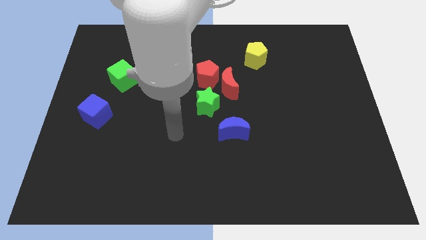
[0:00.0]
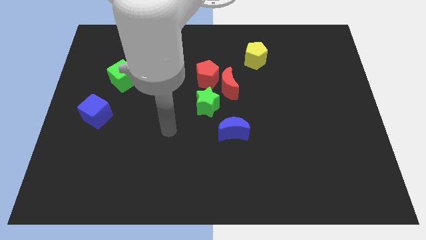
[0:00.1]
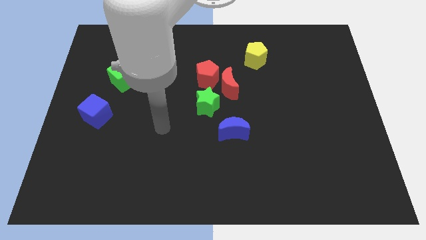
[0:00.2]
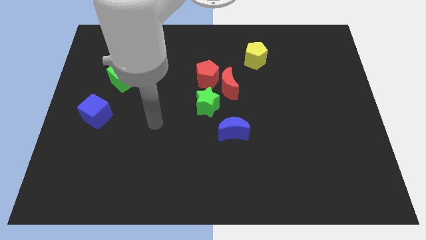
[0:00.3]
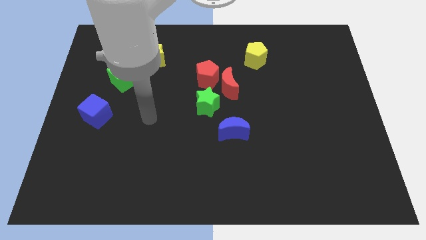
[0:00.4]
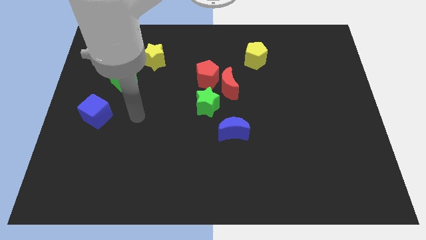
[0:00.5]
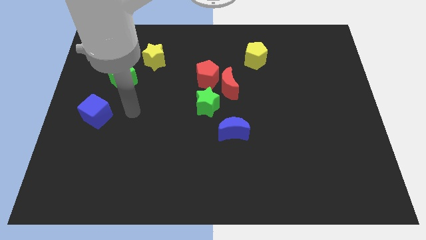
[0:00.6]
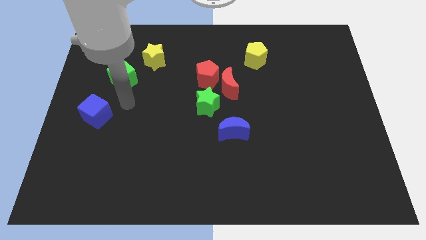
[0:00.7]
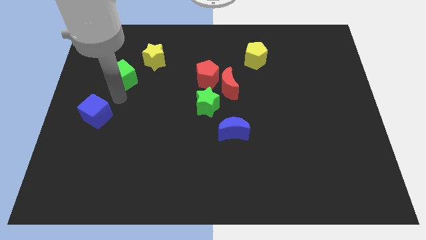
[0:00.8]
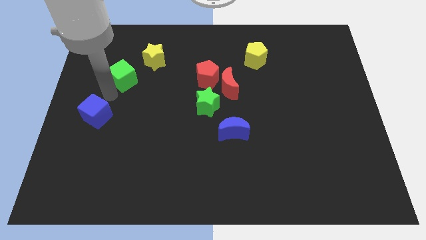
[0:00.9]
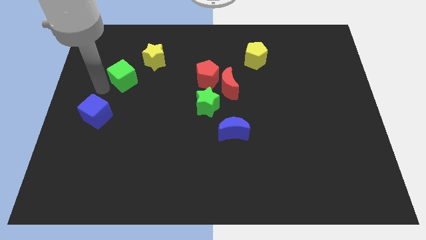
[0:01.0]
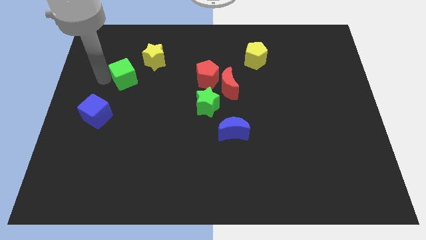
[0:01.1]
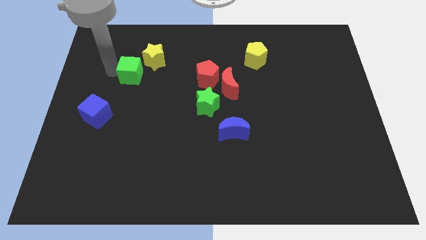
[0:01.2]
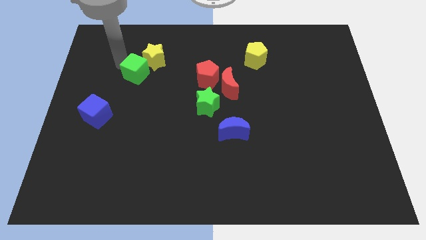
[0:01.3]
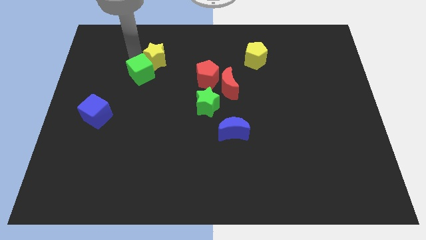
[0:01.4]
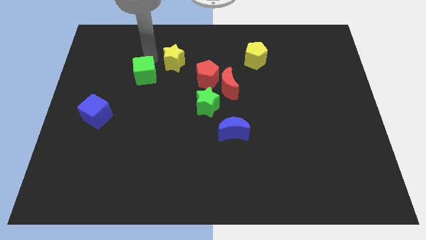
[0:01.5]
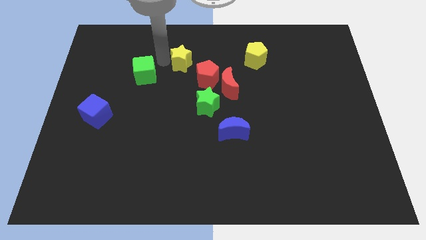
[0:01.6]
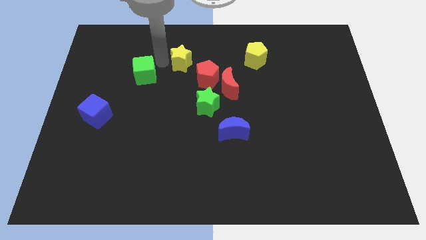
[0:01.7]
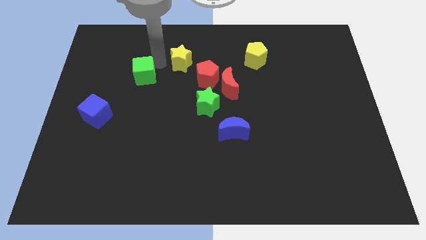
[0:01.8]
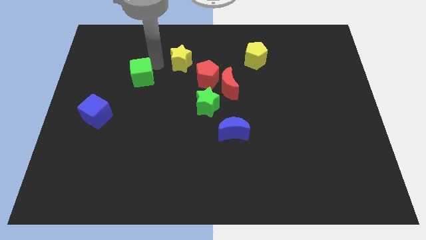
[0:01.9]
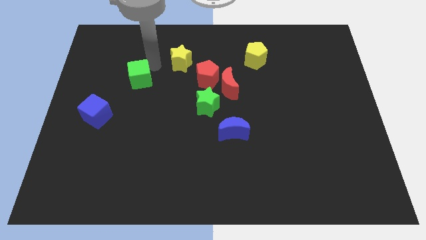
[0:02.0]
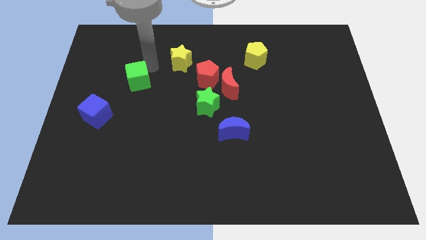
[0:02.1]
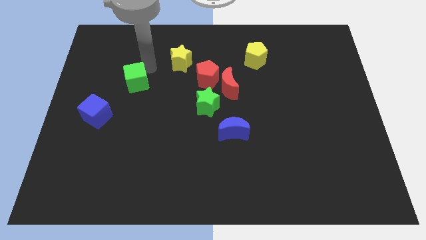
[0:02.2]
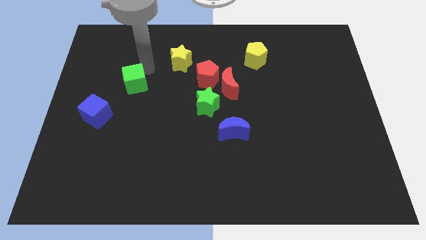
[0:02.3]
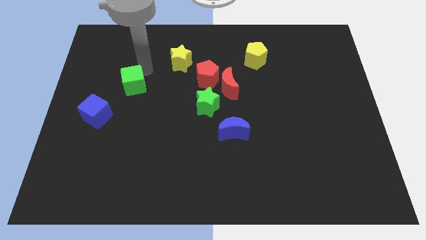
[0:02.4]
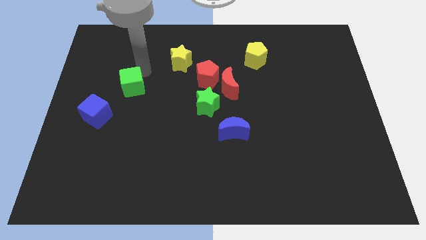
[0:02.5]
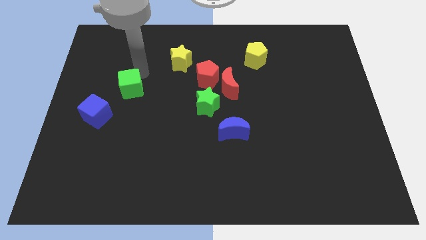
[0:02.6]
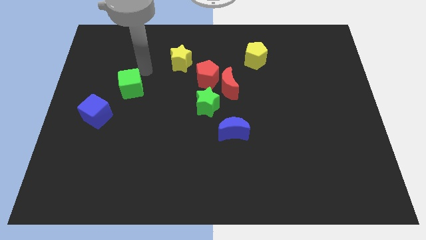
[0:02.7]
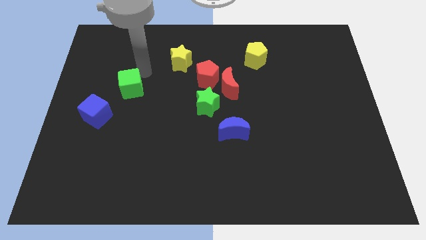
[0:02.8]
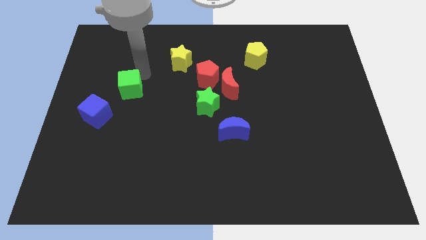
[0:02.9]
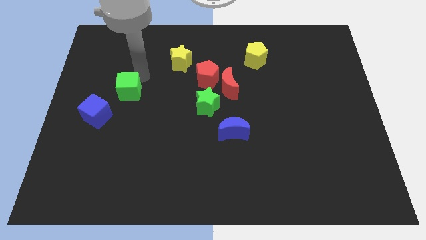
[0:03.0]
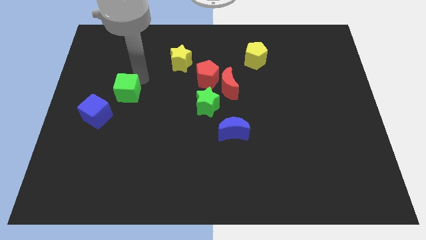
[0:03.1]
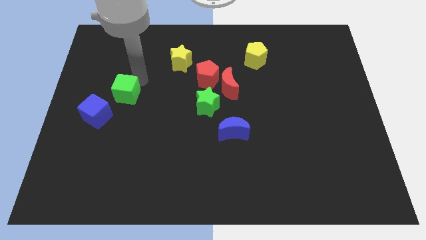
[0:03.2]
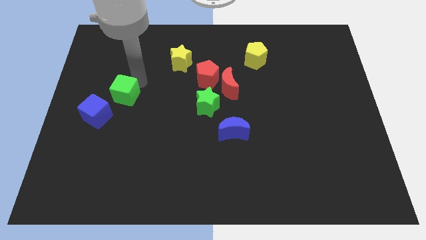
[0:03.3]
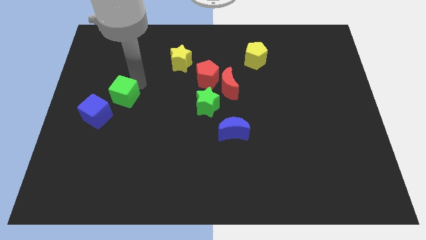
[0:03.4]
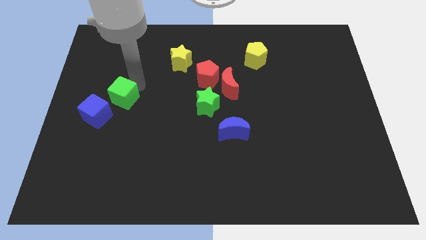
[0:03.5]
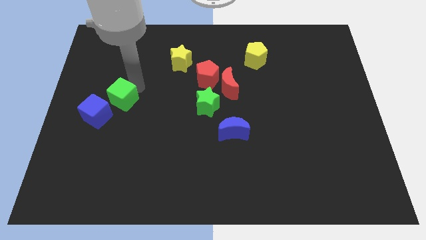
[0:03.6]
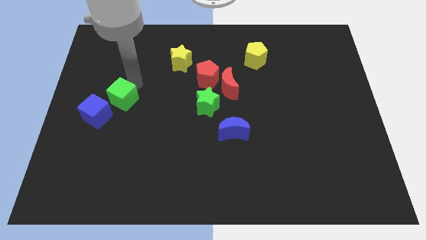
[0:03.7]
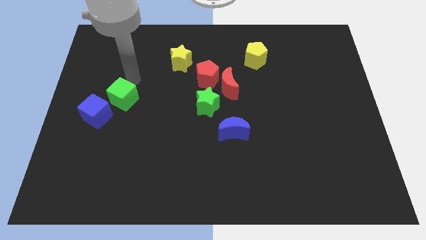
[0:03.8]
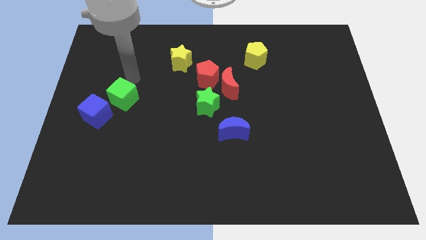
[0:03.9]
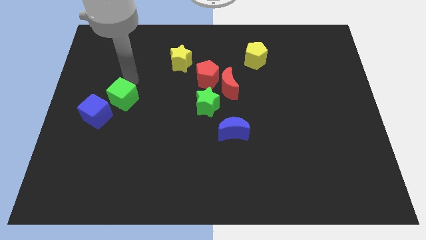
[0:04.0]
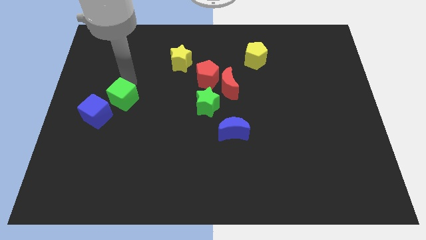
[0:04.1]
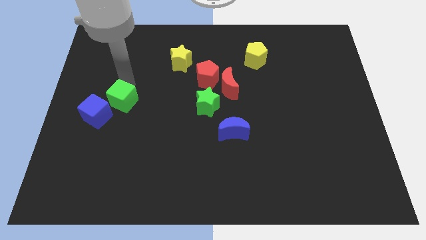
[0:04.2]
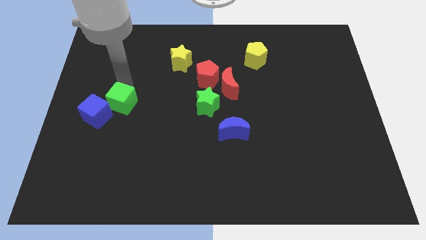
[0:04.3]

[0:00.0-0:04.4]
move the green cube downwards a little

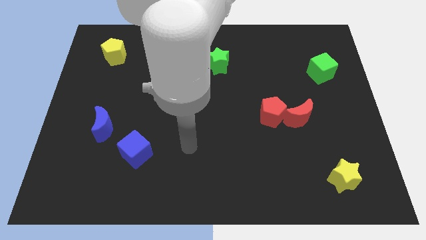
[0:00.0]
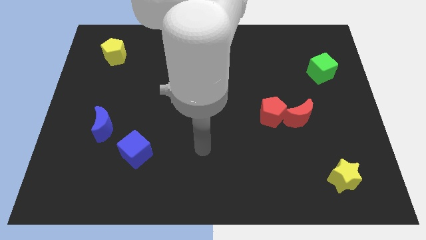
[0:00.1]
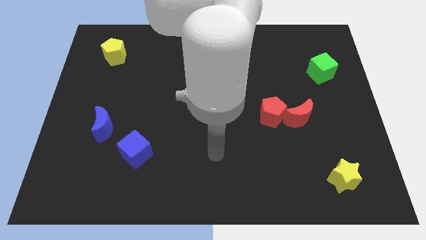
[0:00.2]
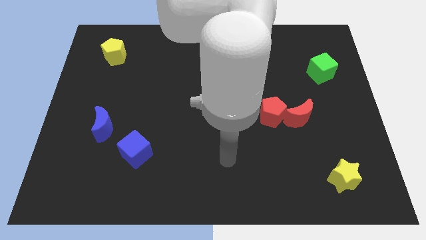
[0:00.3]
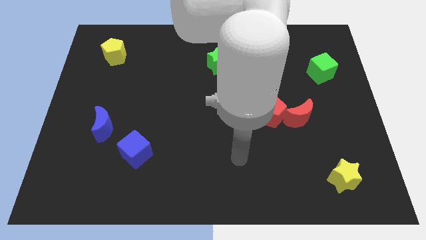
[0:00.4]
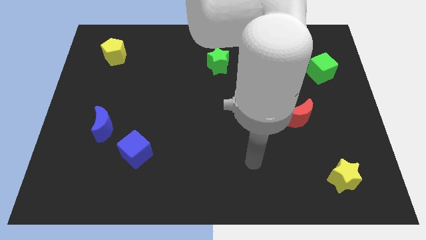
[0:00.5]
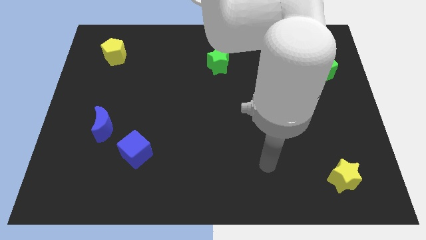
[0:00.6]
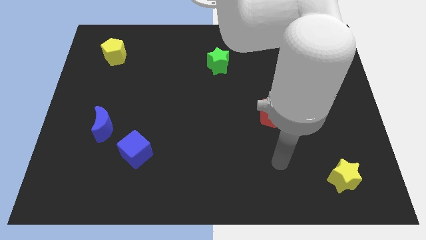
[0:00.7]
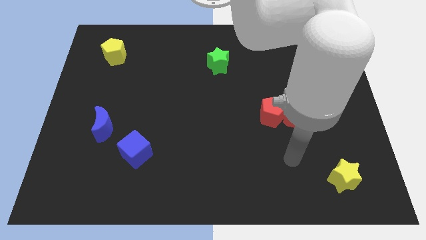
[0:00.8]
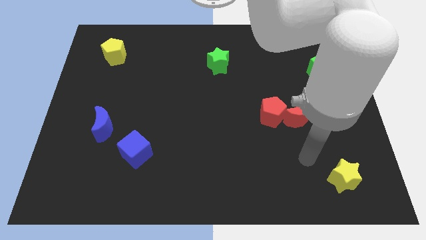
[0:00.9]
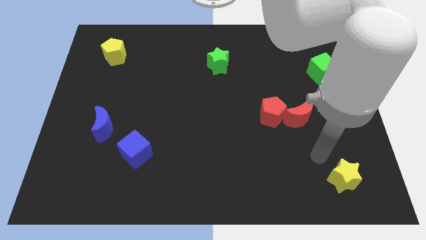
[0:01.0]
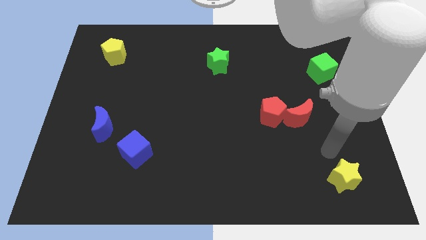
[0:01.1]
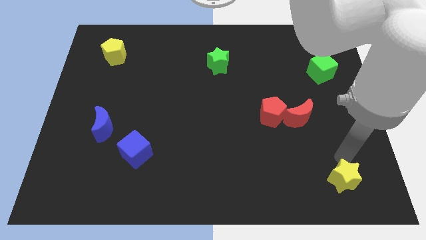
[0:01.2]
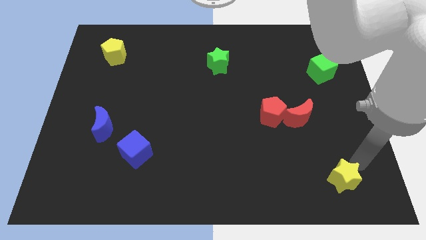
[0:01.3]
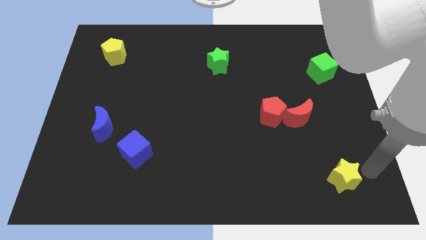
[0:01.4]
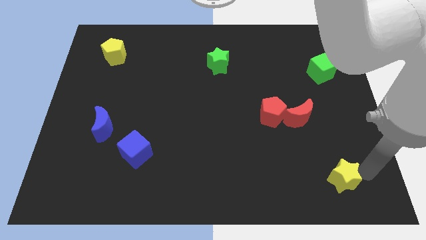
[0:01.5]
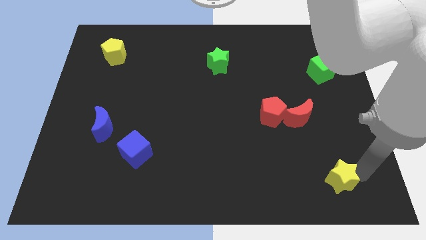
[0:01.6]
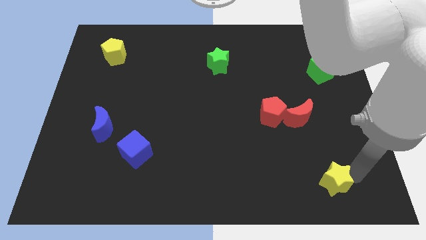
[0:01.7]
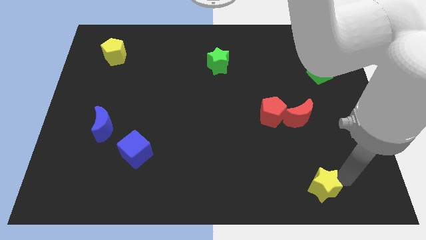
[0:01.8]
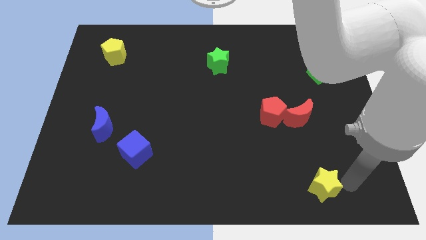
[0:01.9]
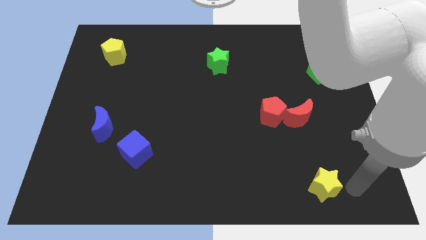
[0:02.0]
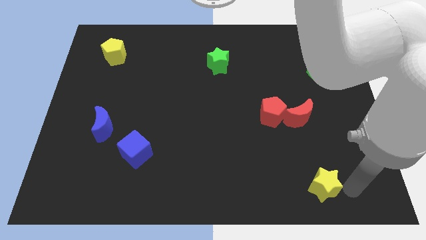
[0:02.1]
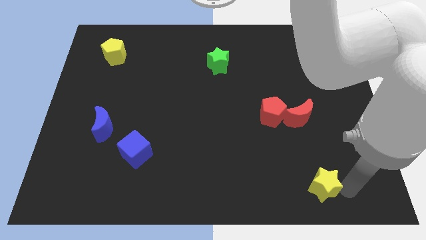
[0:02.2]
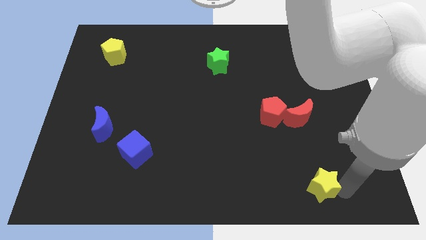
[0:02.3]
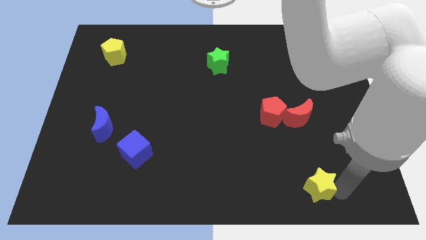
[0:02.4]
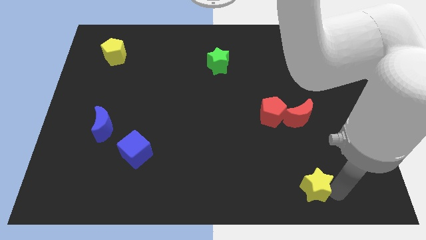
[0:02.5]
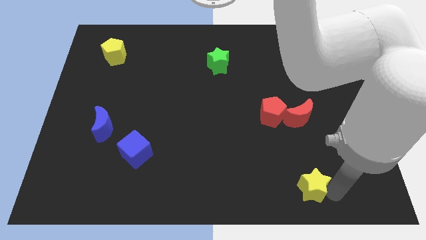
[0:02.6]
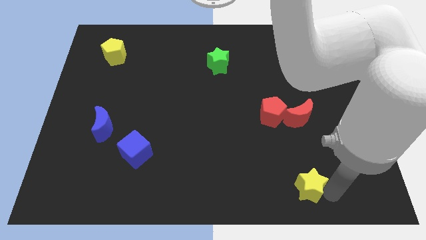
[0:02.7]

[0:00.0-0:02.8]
slide the yellow star left a little bit

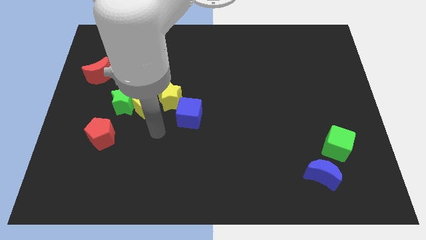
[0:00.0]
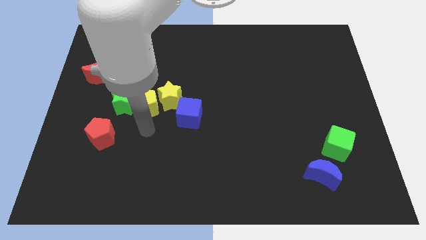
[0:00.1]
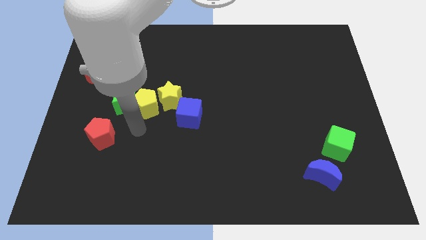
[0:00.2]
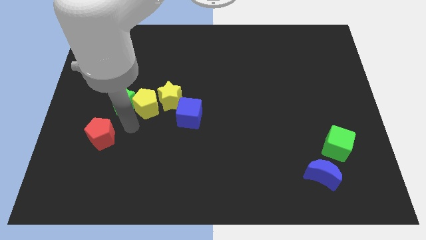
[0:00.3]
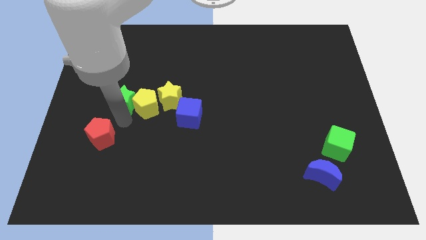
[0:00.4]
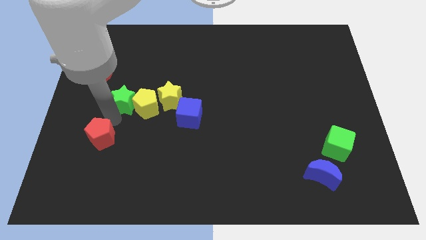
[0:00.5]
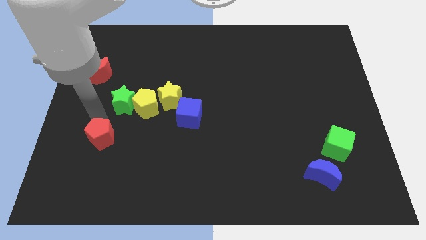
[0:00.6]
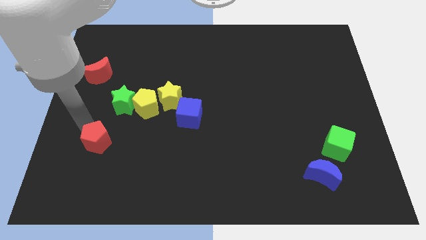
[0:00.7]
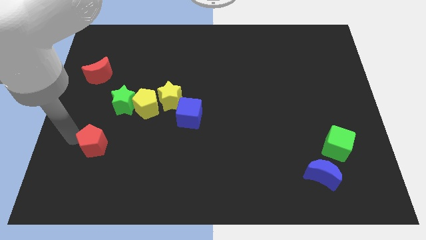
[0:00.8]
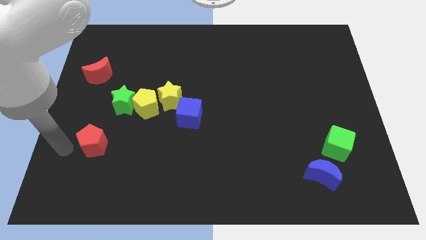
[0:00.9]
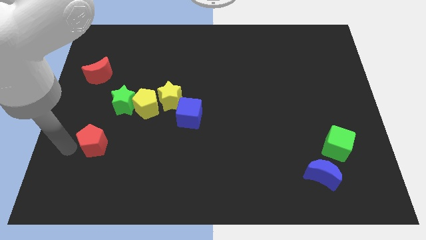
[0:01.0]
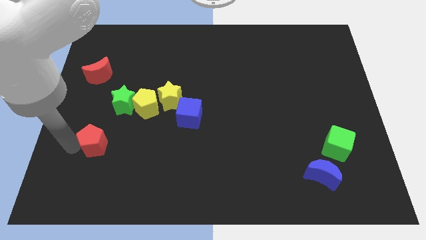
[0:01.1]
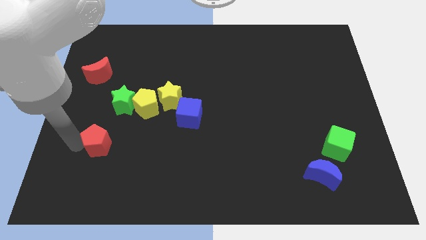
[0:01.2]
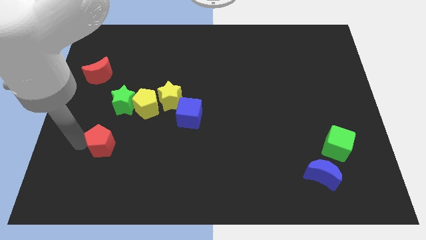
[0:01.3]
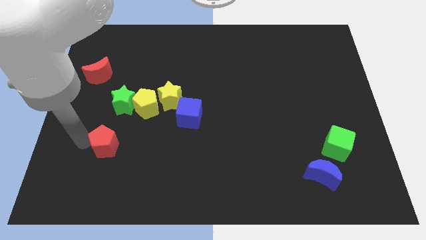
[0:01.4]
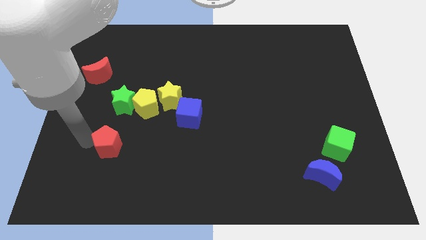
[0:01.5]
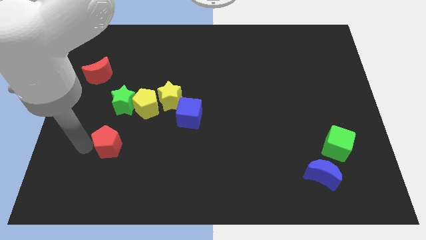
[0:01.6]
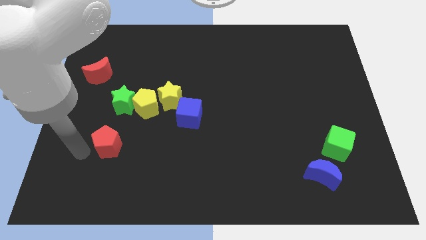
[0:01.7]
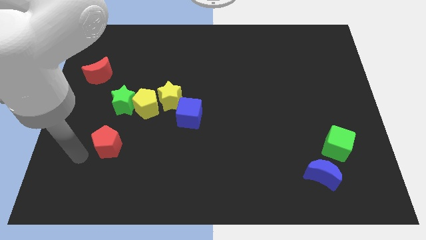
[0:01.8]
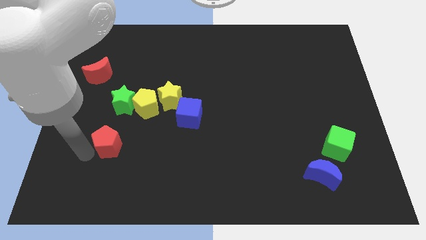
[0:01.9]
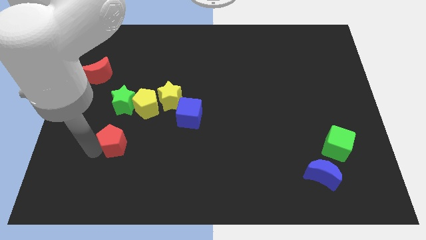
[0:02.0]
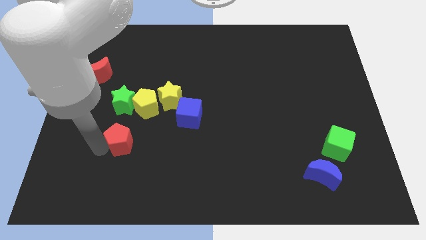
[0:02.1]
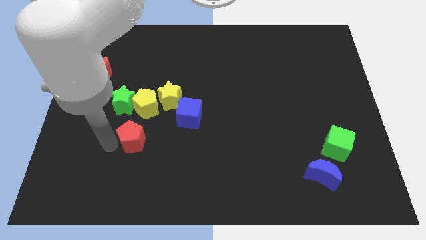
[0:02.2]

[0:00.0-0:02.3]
move the red pentagon a bit to the right
